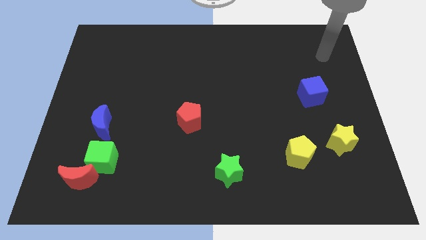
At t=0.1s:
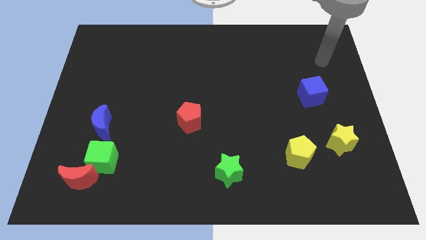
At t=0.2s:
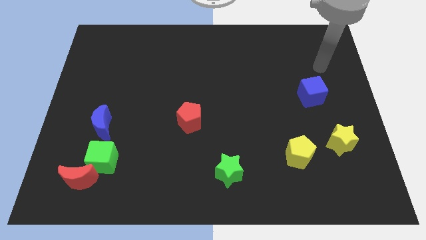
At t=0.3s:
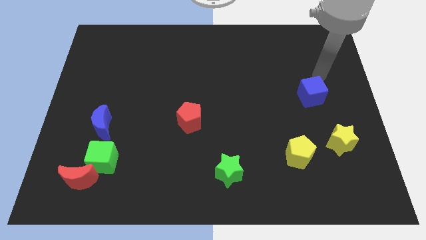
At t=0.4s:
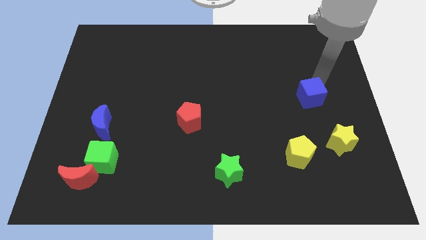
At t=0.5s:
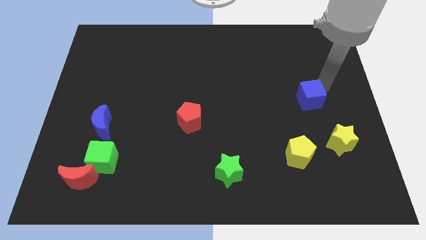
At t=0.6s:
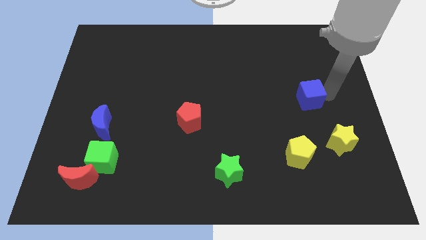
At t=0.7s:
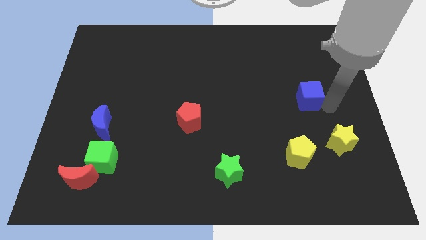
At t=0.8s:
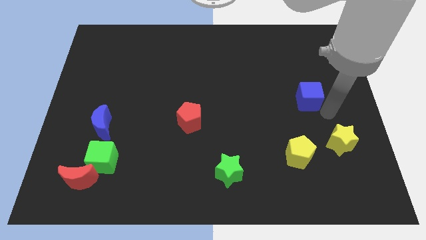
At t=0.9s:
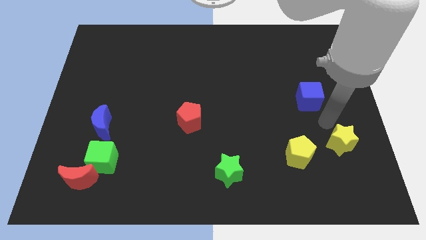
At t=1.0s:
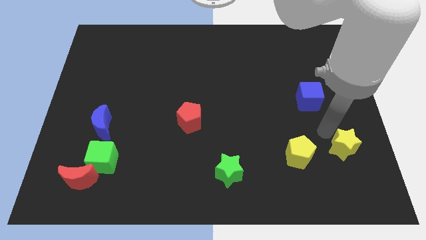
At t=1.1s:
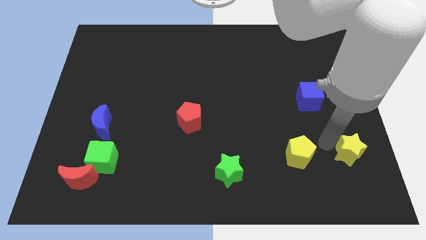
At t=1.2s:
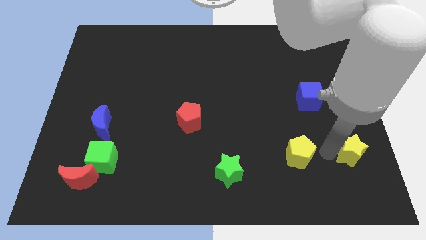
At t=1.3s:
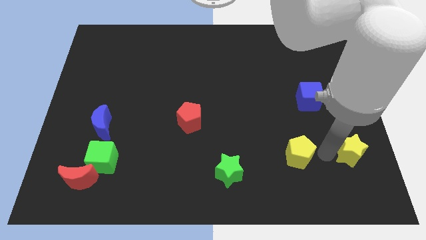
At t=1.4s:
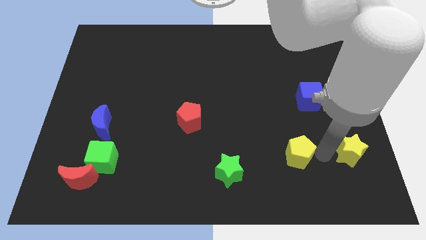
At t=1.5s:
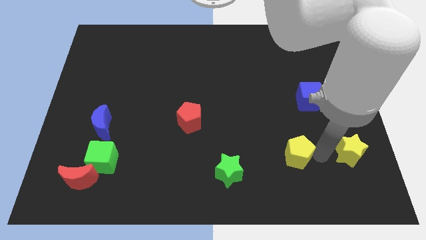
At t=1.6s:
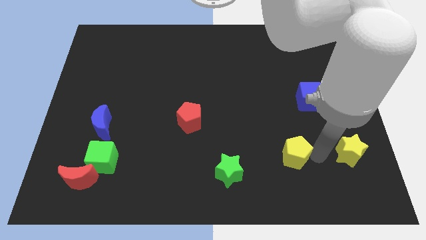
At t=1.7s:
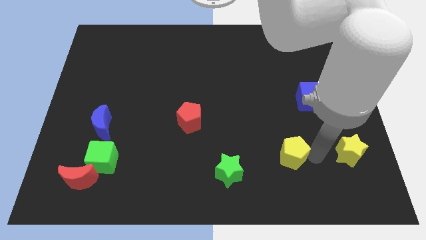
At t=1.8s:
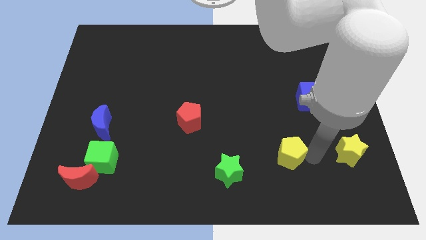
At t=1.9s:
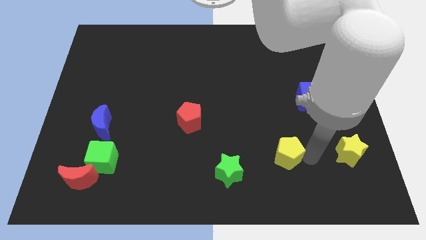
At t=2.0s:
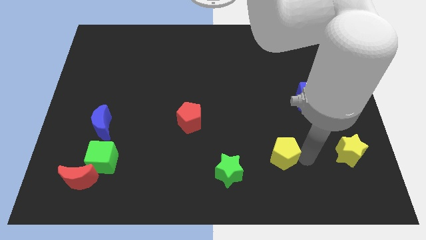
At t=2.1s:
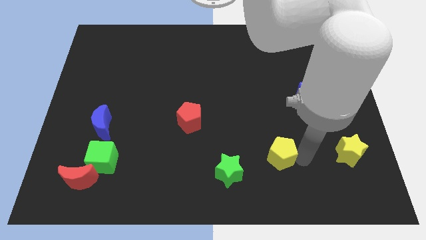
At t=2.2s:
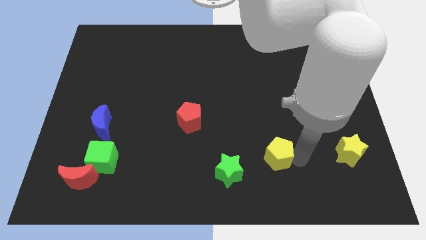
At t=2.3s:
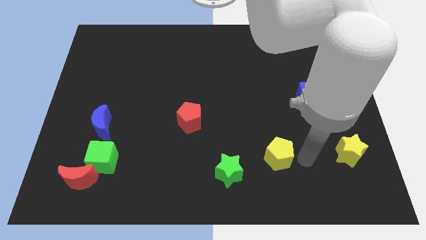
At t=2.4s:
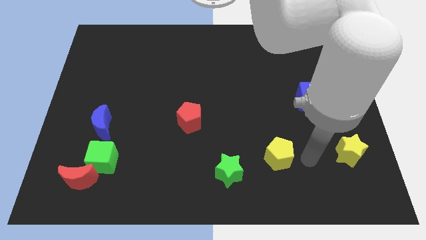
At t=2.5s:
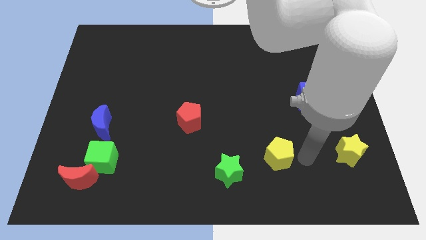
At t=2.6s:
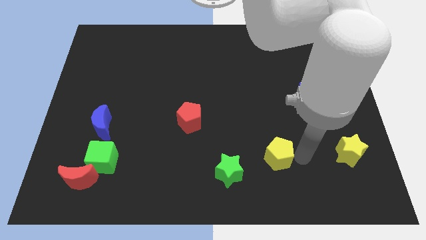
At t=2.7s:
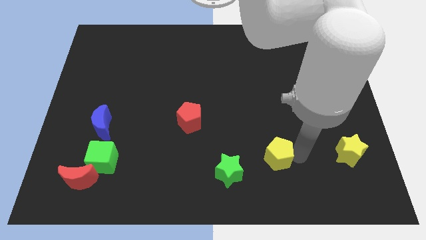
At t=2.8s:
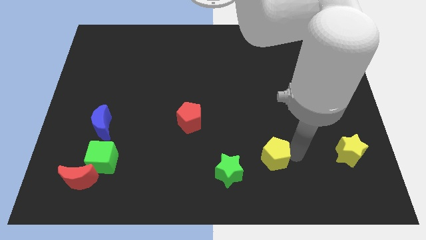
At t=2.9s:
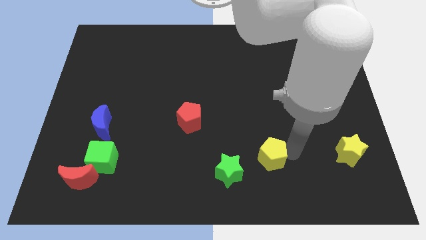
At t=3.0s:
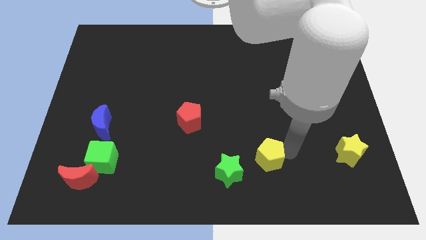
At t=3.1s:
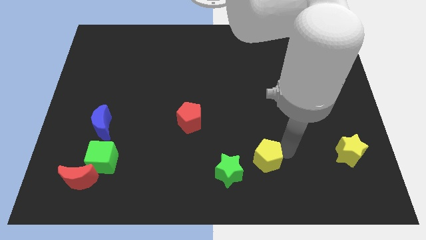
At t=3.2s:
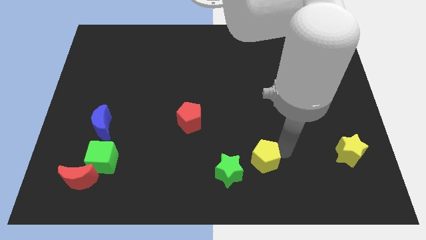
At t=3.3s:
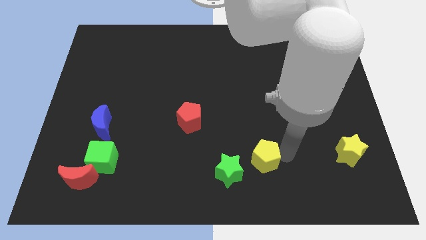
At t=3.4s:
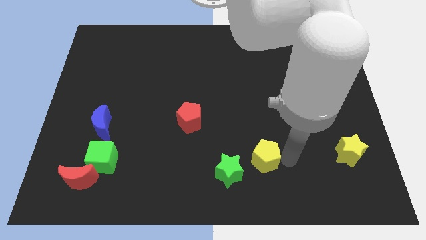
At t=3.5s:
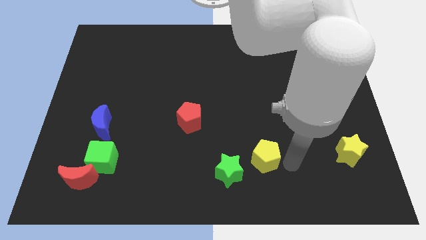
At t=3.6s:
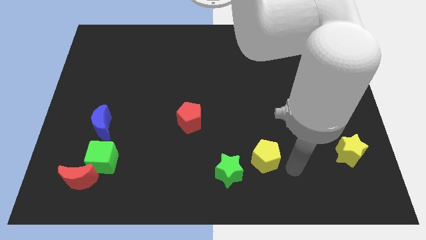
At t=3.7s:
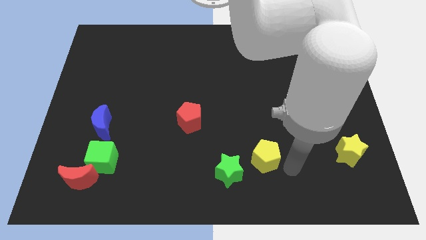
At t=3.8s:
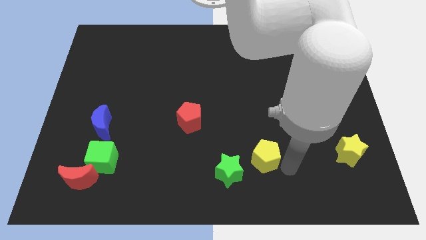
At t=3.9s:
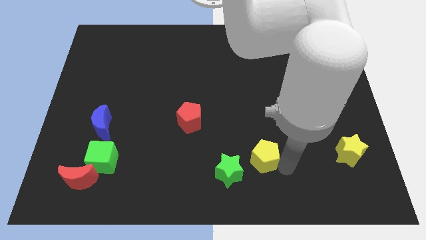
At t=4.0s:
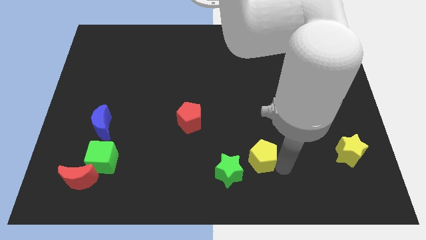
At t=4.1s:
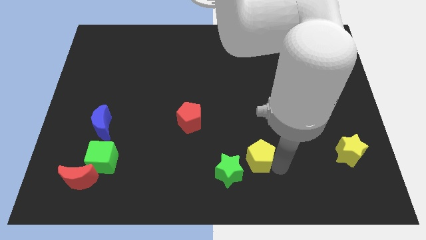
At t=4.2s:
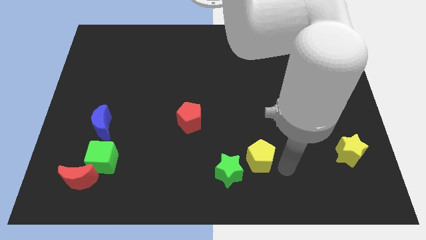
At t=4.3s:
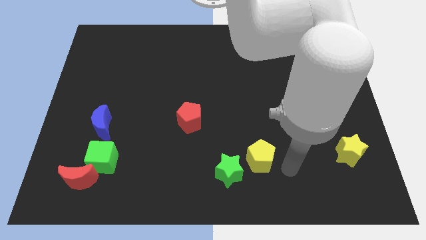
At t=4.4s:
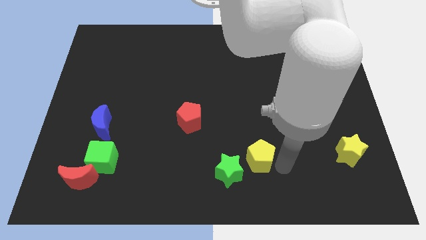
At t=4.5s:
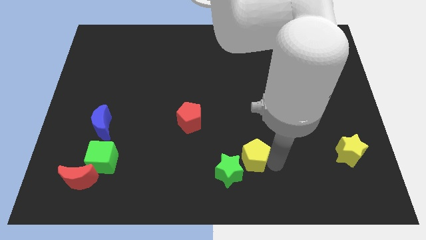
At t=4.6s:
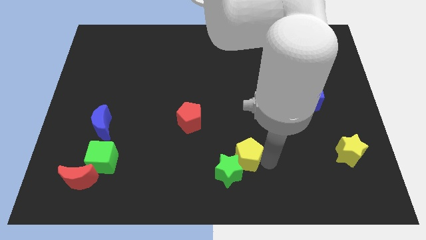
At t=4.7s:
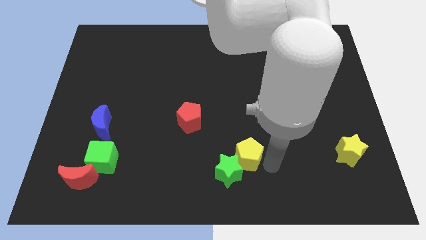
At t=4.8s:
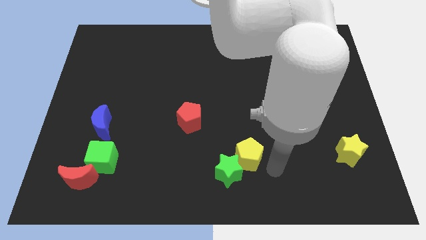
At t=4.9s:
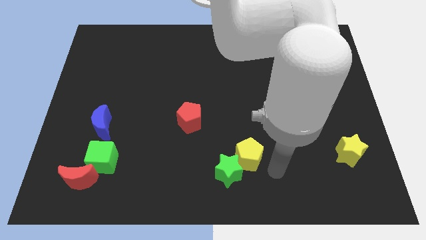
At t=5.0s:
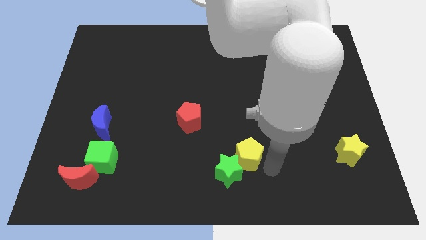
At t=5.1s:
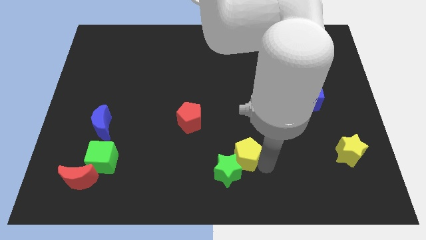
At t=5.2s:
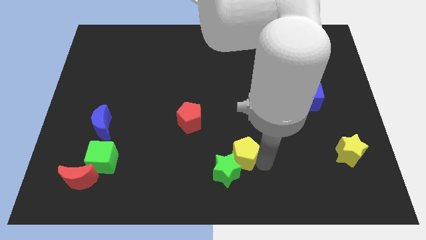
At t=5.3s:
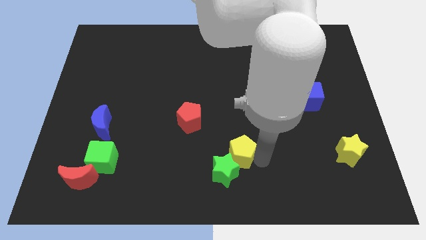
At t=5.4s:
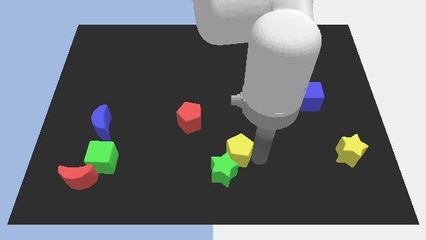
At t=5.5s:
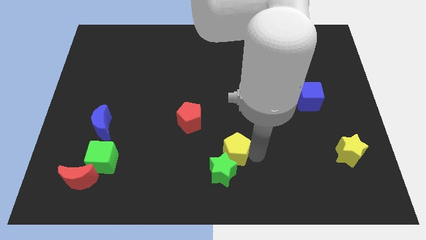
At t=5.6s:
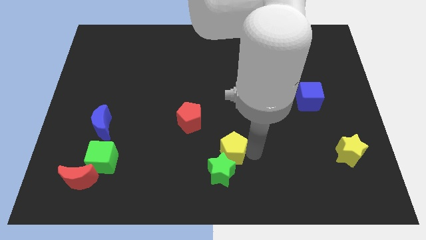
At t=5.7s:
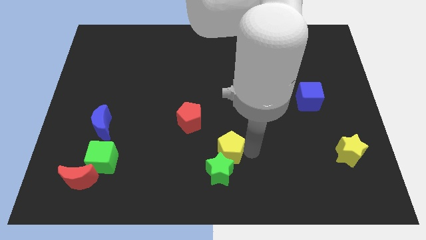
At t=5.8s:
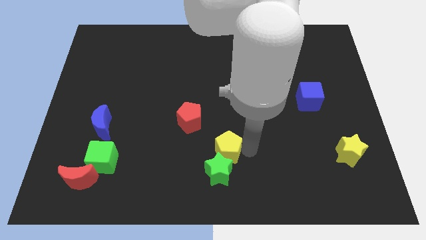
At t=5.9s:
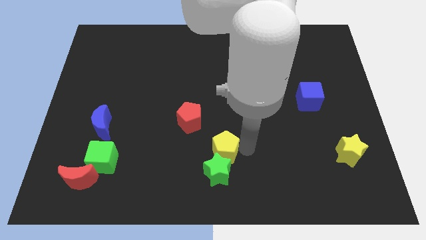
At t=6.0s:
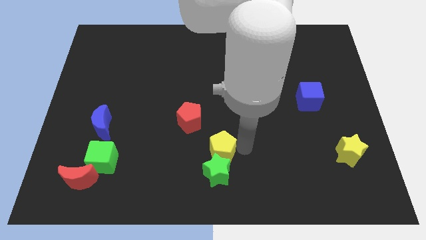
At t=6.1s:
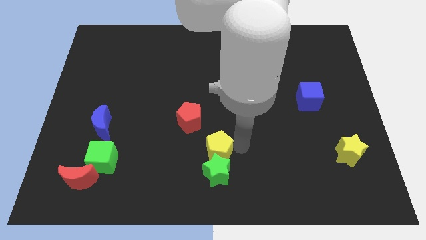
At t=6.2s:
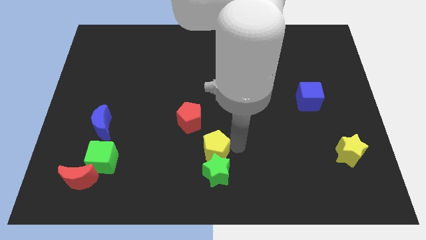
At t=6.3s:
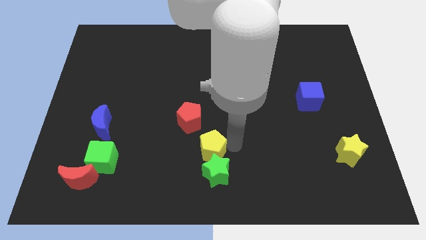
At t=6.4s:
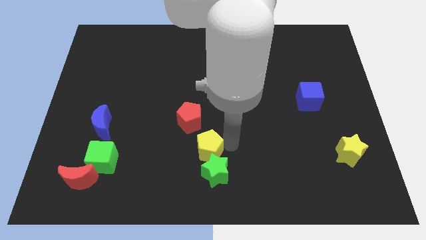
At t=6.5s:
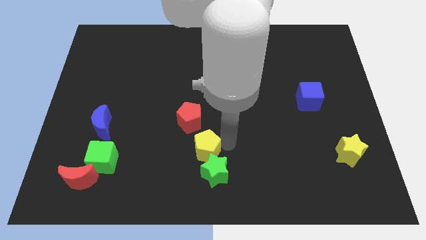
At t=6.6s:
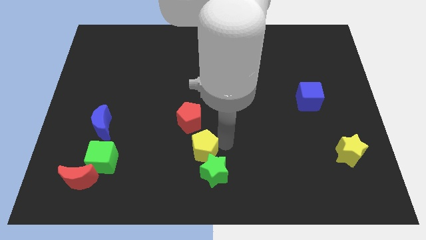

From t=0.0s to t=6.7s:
push the yellow pentagon to the left

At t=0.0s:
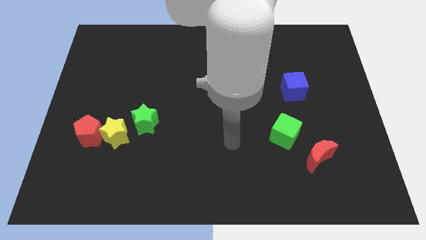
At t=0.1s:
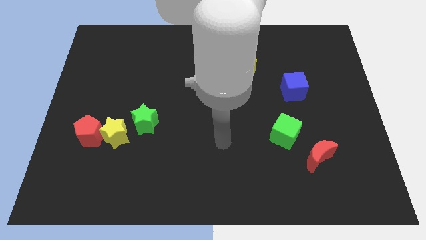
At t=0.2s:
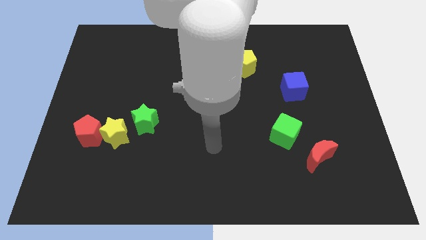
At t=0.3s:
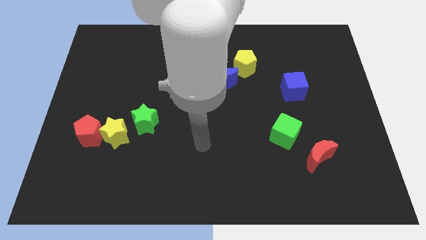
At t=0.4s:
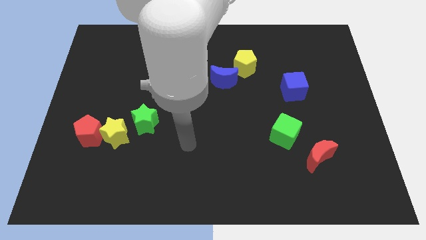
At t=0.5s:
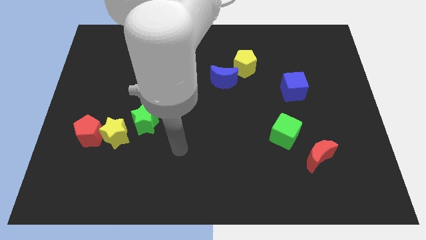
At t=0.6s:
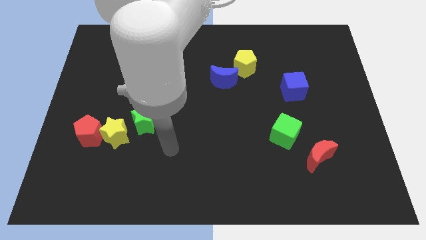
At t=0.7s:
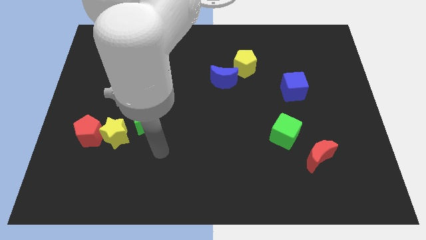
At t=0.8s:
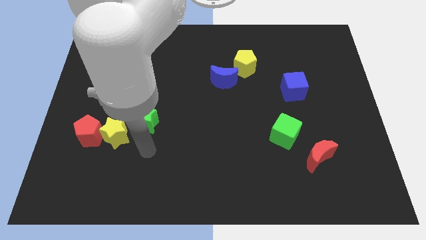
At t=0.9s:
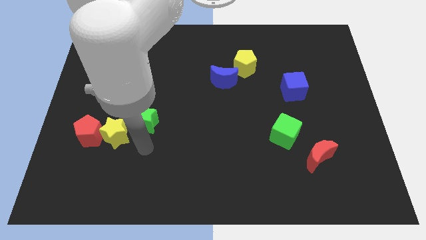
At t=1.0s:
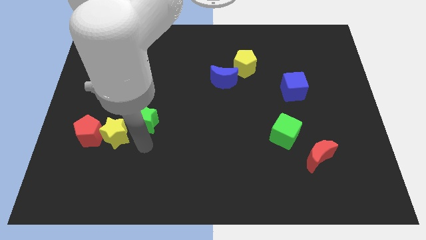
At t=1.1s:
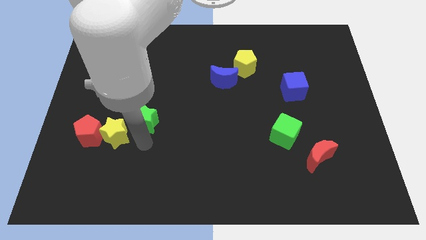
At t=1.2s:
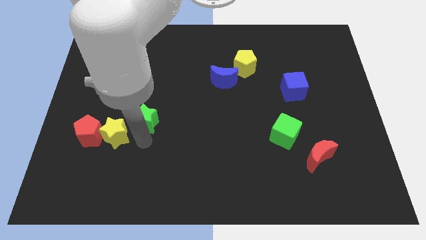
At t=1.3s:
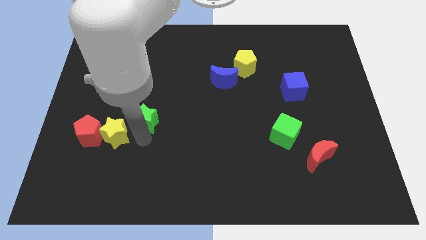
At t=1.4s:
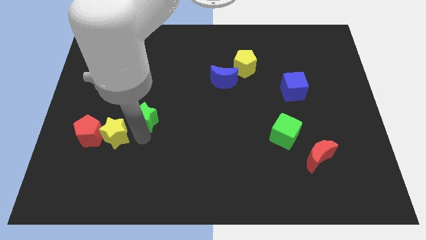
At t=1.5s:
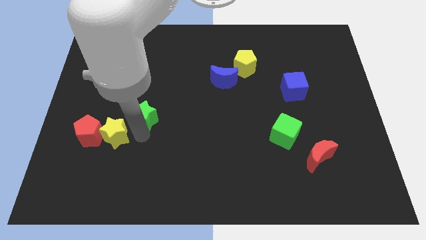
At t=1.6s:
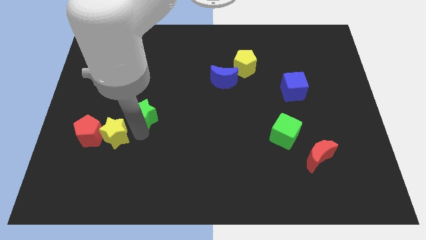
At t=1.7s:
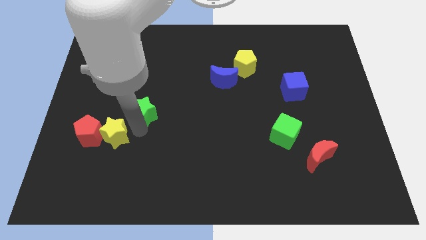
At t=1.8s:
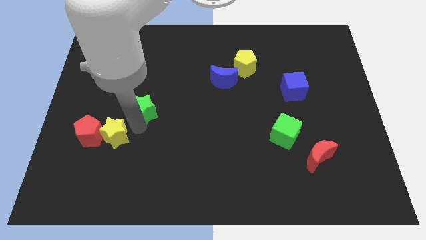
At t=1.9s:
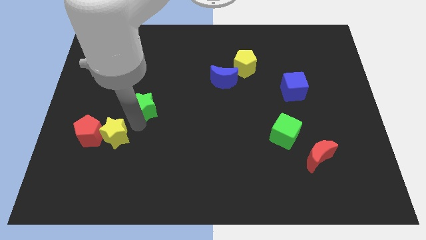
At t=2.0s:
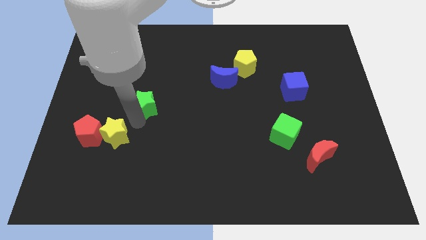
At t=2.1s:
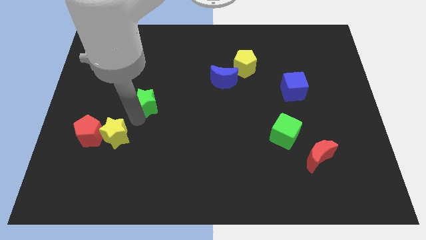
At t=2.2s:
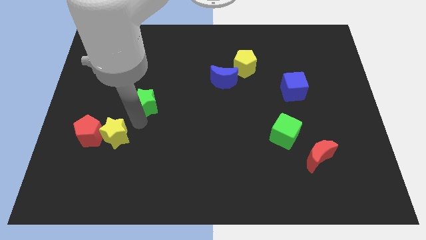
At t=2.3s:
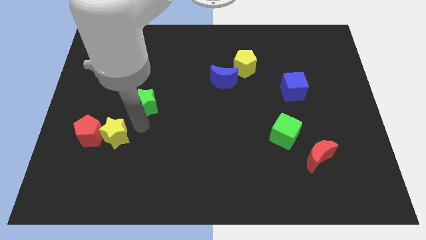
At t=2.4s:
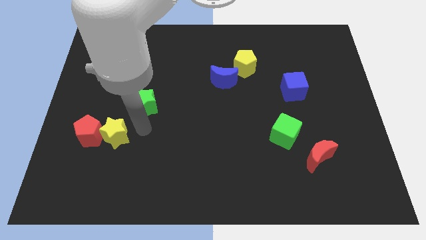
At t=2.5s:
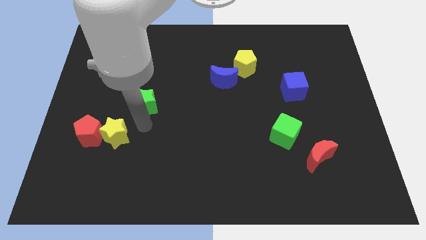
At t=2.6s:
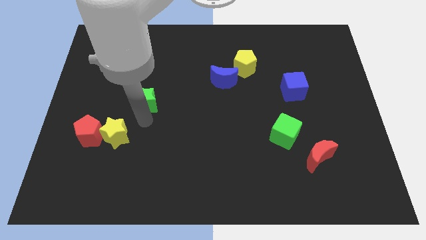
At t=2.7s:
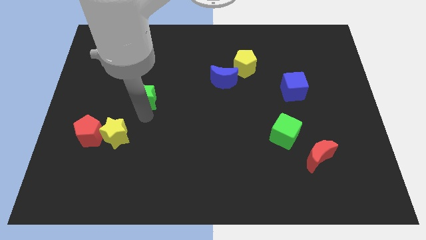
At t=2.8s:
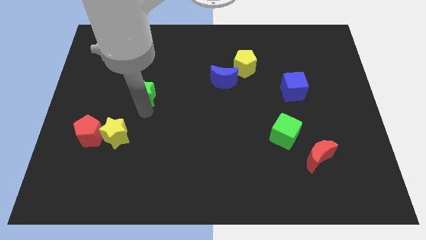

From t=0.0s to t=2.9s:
slide the green star up a bit
